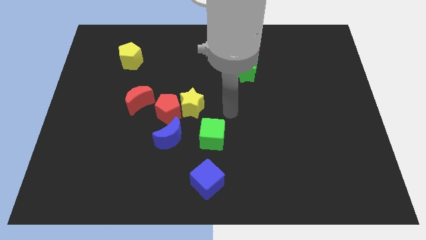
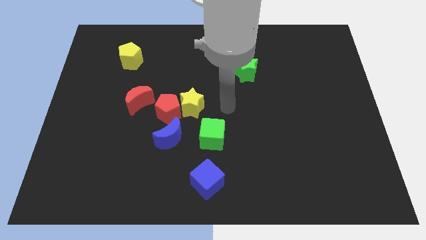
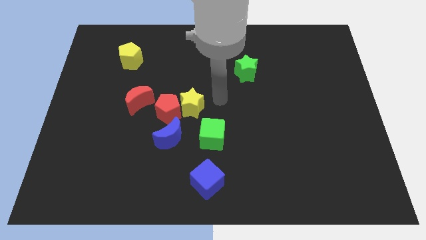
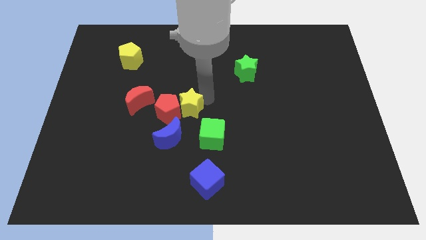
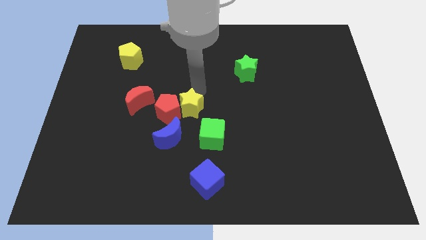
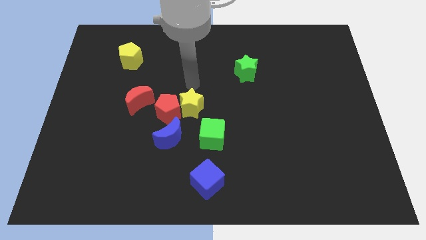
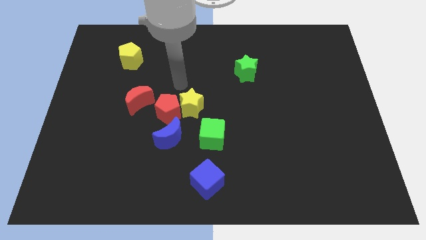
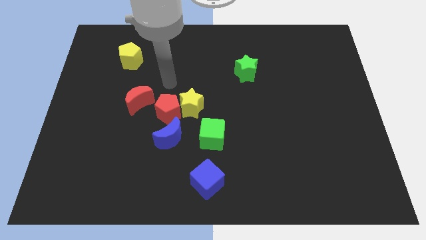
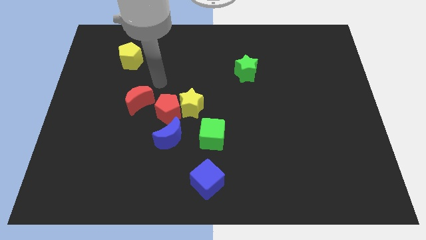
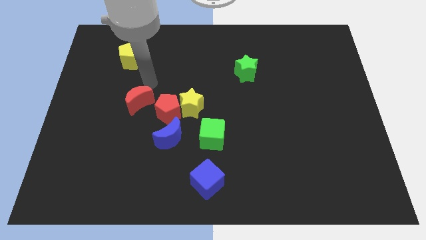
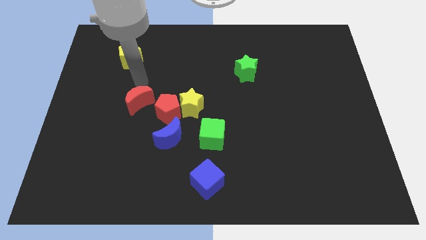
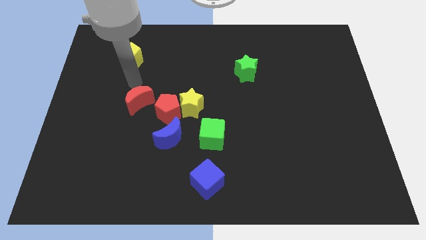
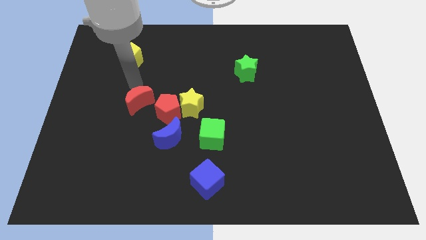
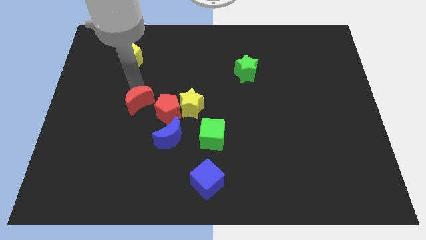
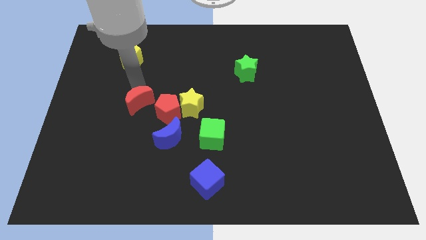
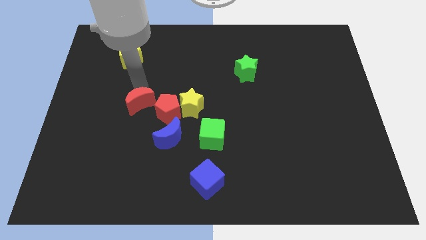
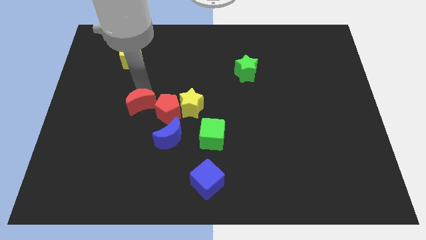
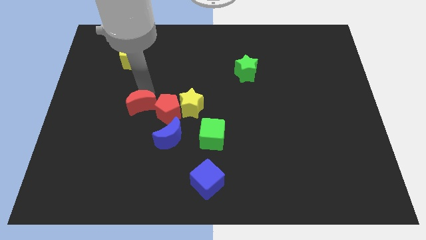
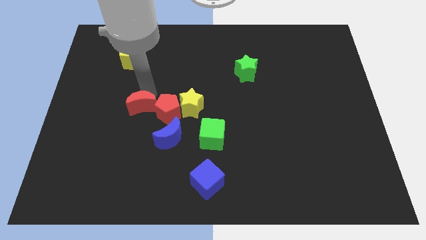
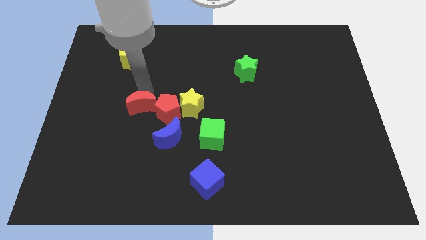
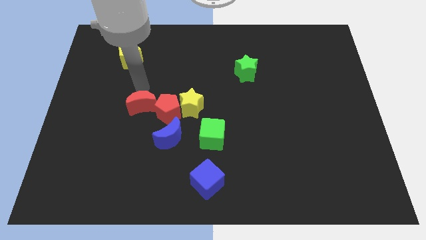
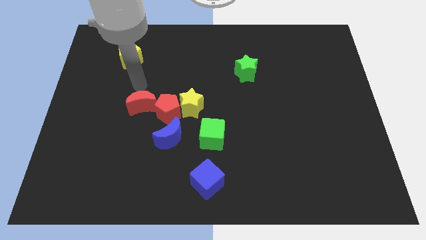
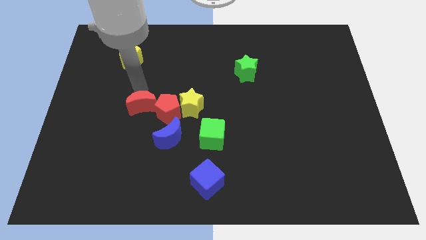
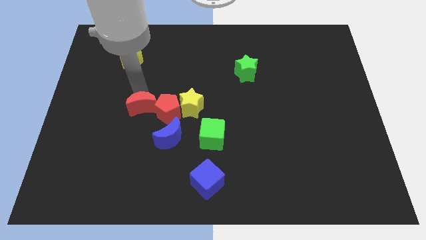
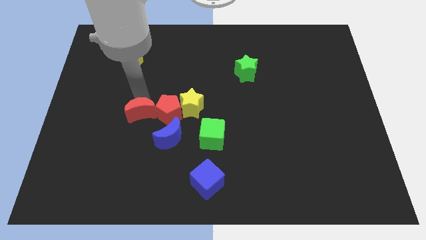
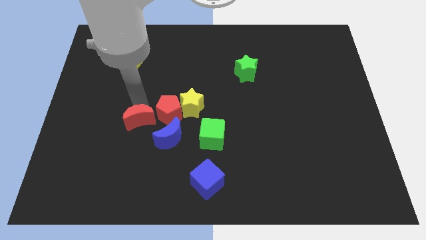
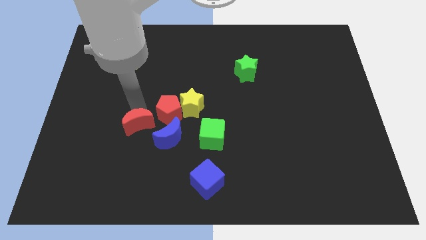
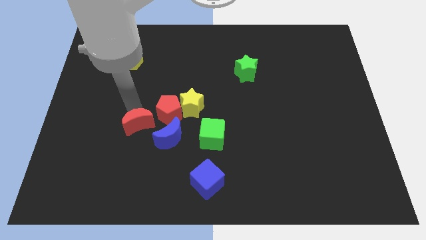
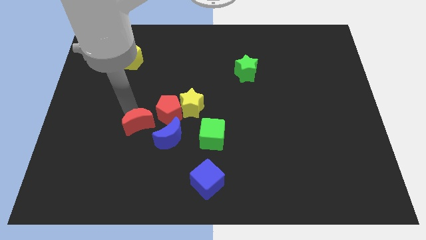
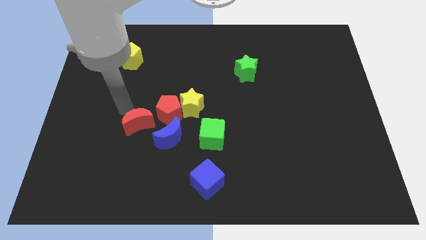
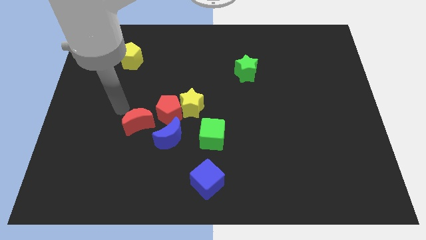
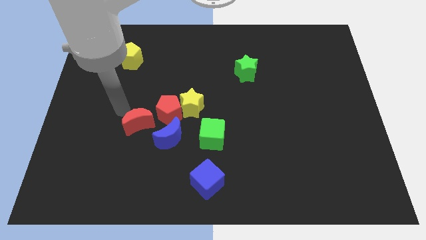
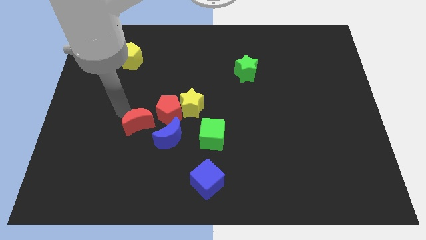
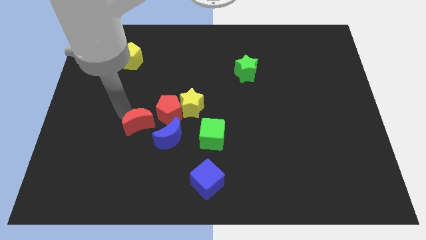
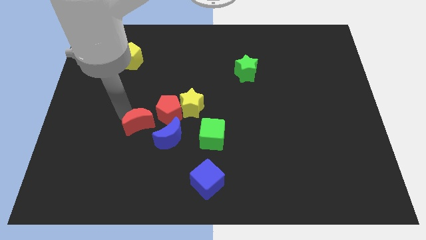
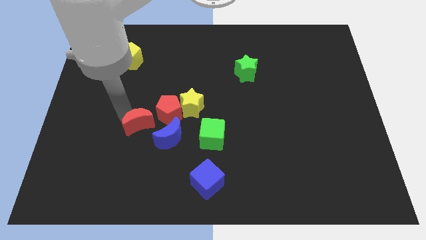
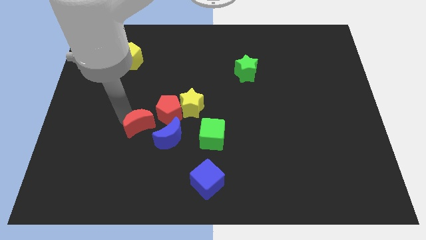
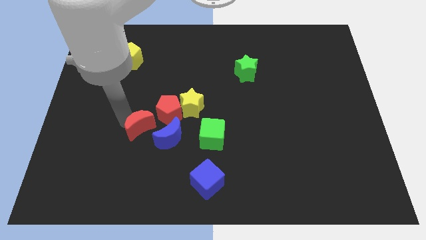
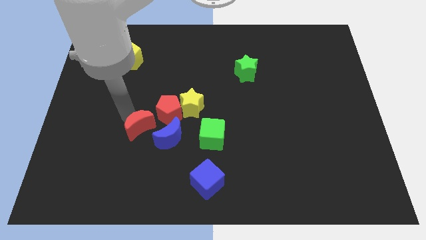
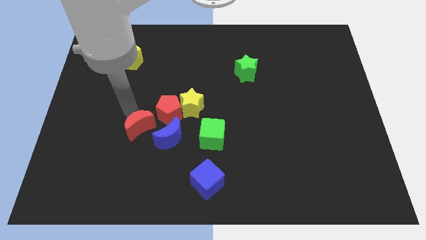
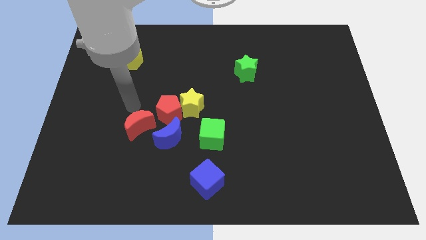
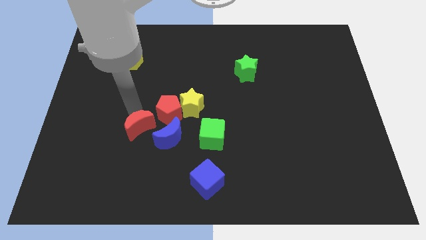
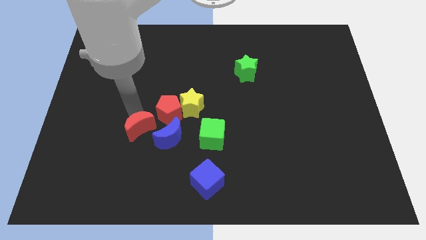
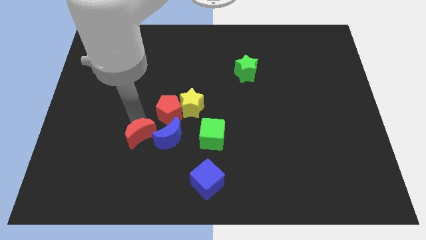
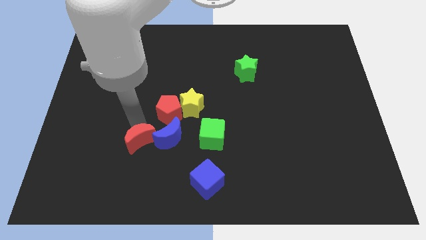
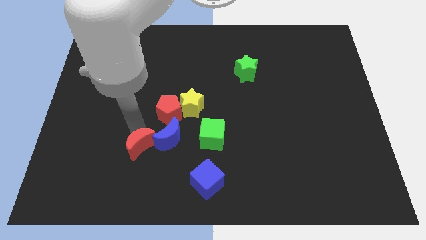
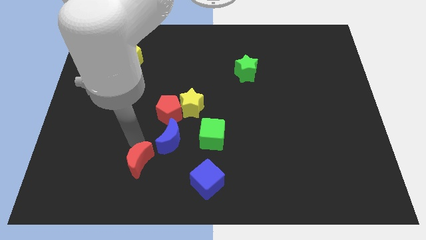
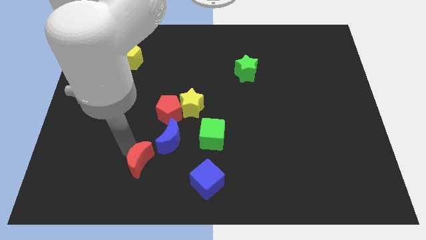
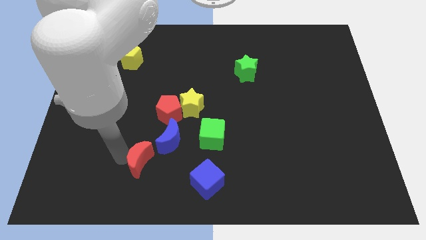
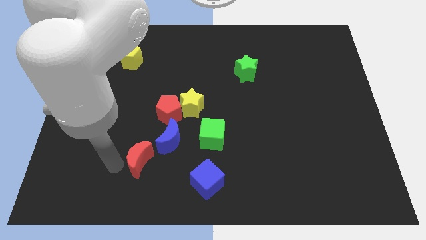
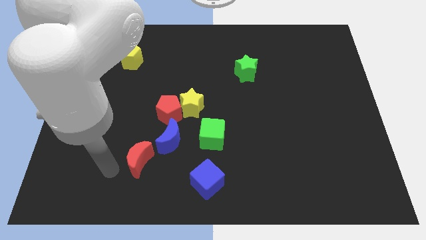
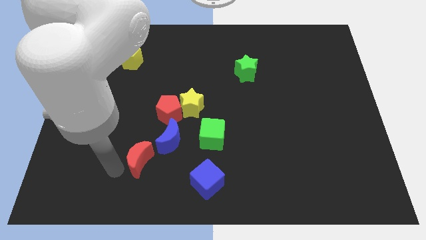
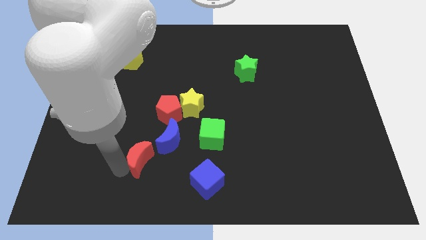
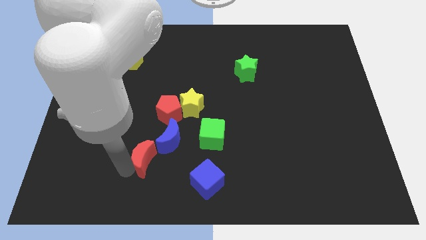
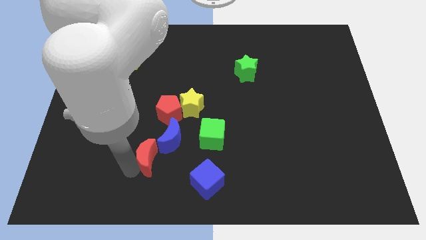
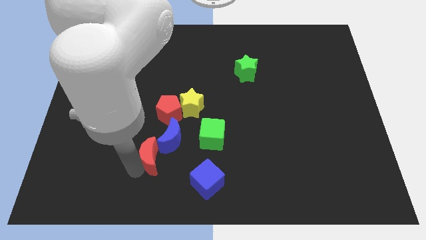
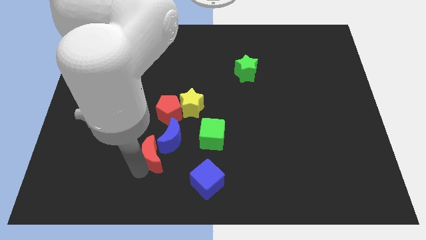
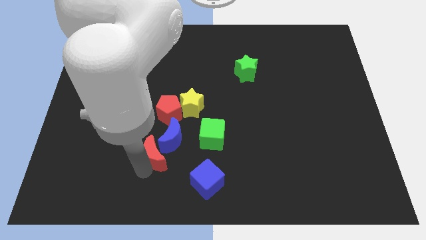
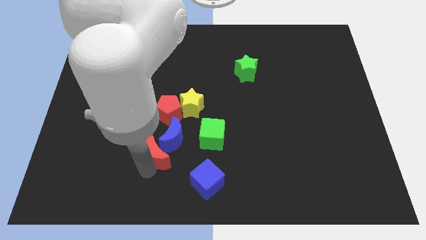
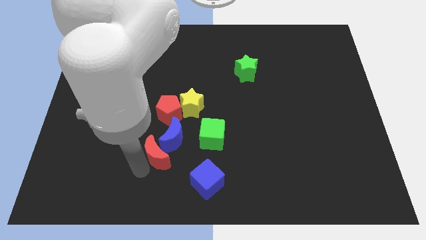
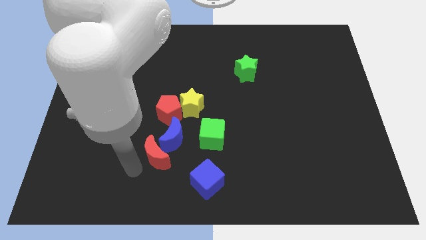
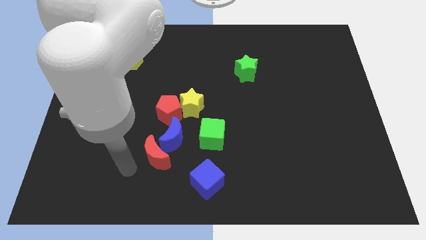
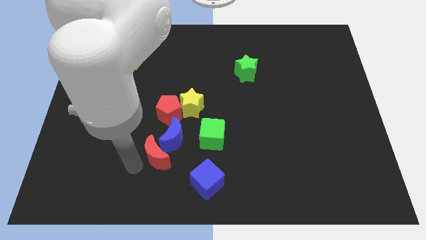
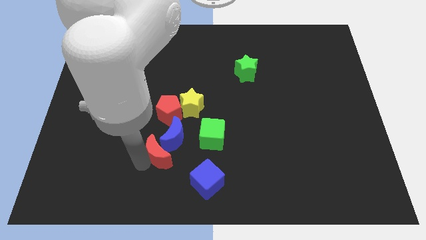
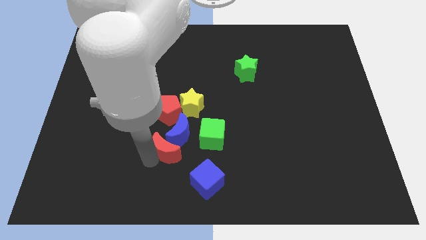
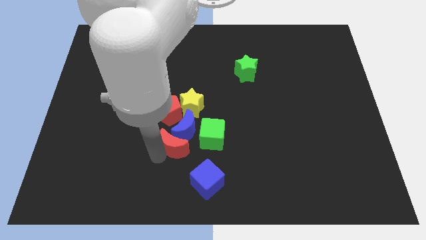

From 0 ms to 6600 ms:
push the red moon below the yellow star
